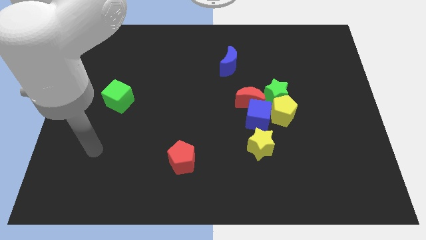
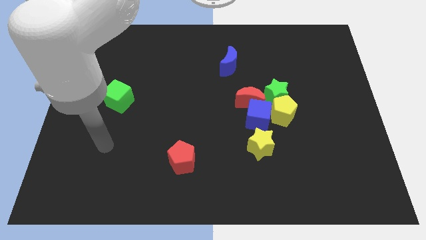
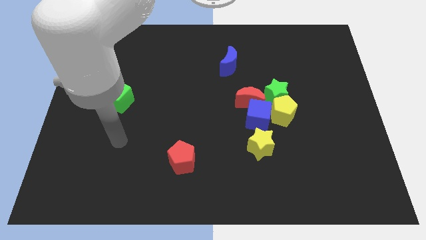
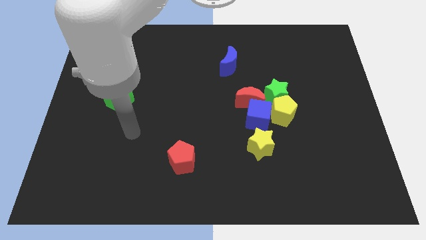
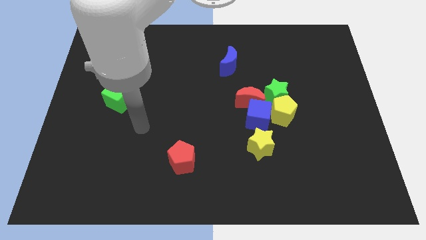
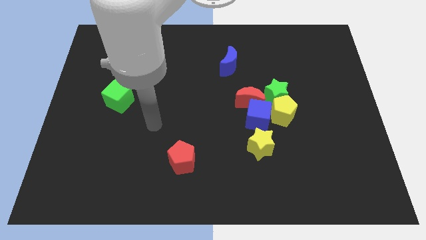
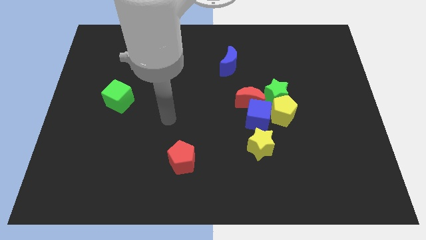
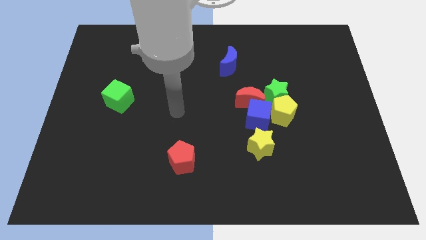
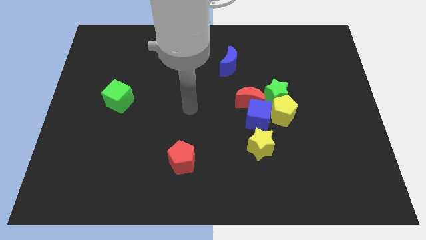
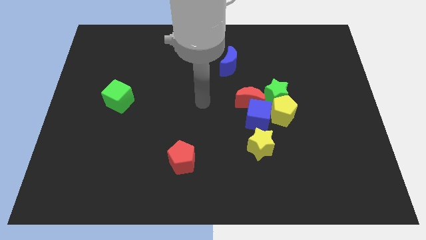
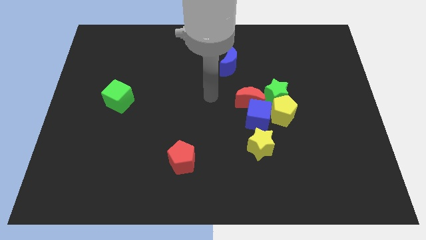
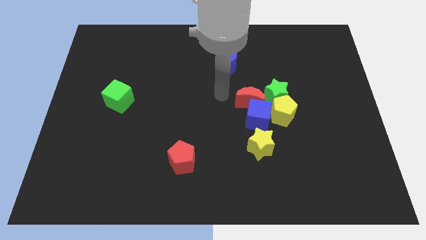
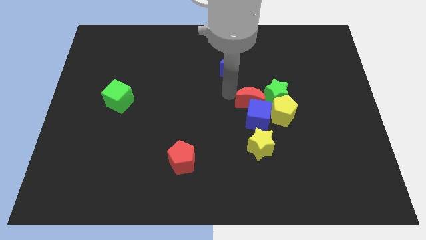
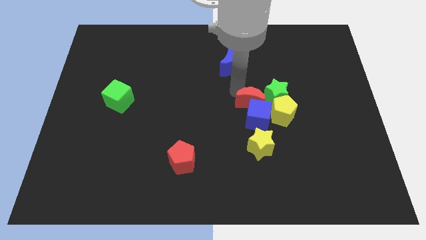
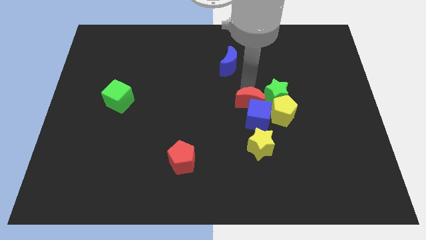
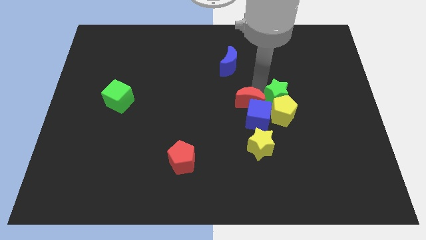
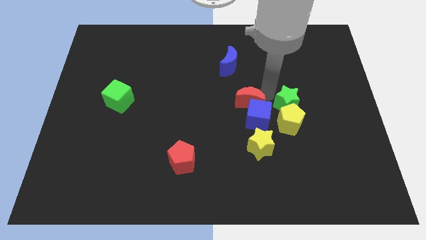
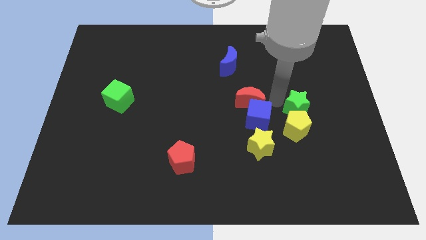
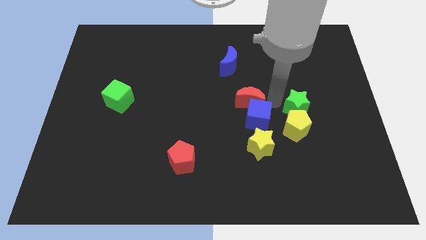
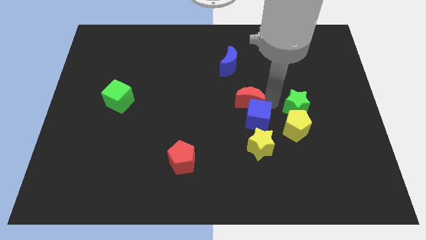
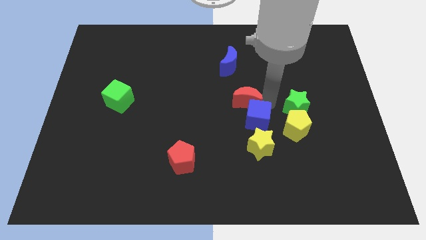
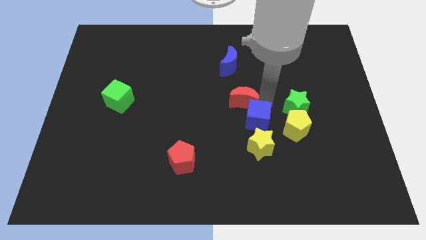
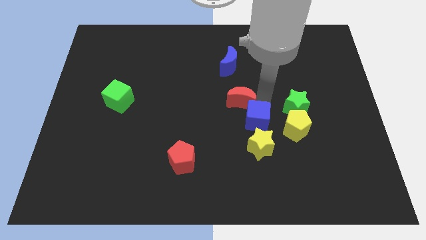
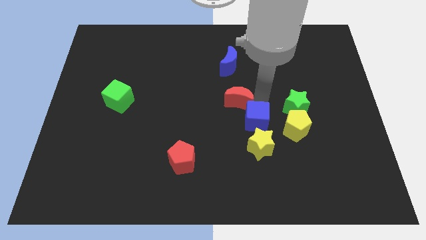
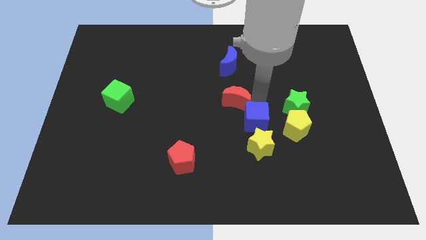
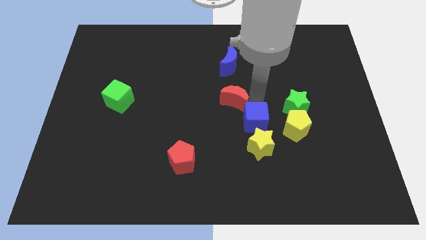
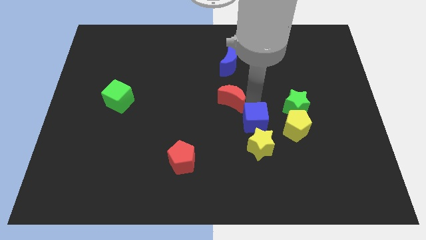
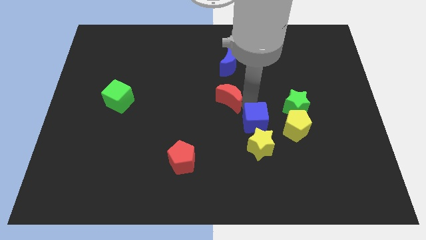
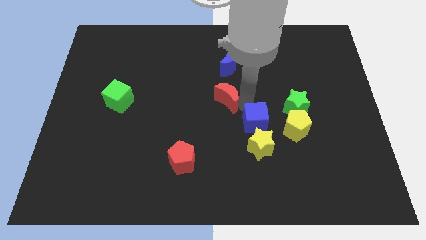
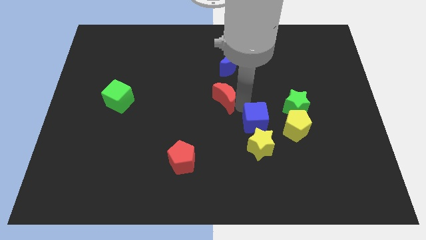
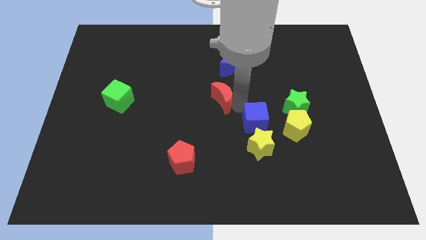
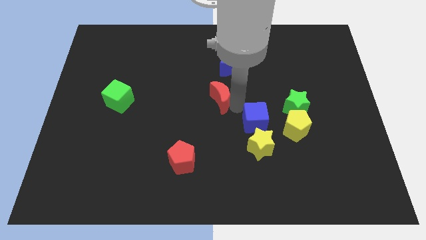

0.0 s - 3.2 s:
move the red moon a little bit left

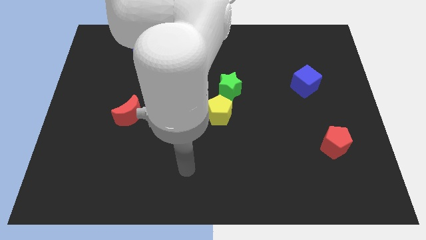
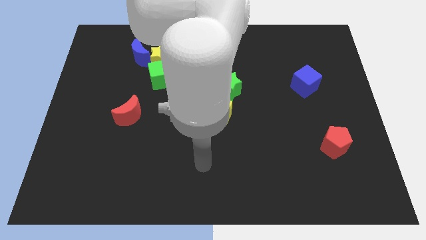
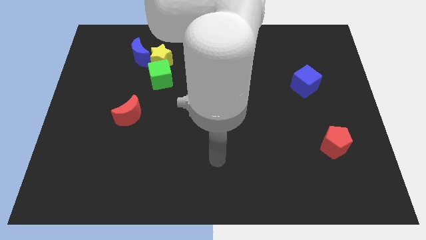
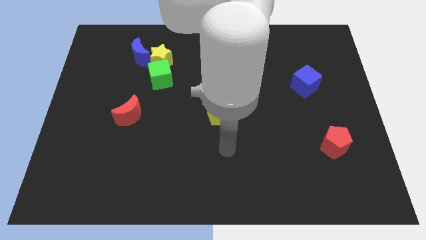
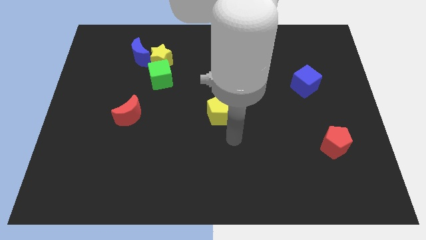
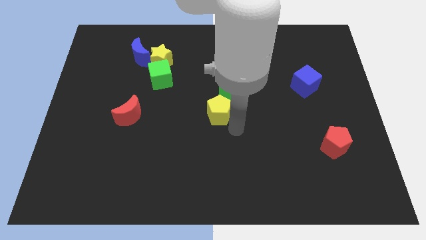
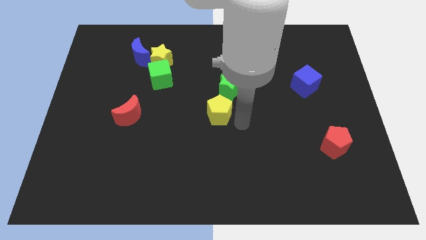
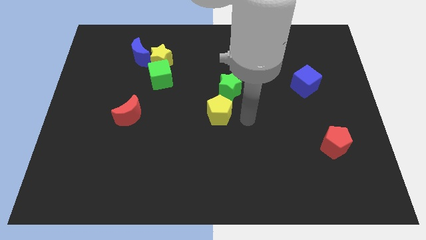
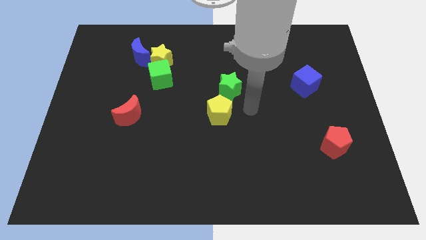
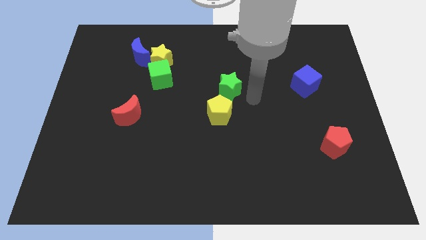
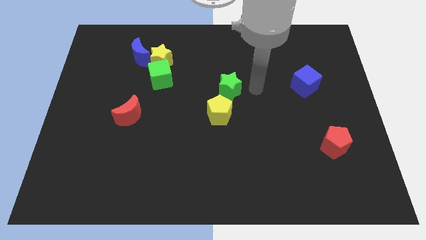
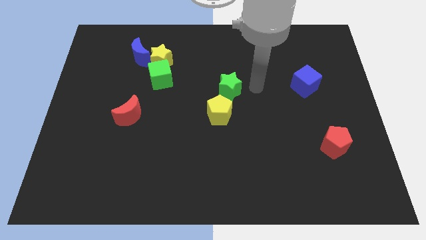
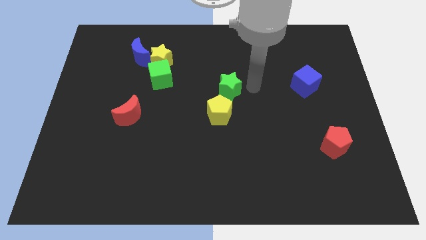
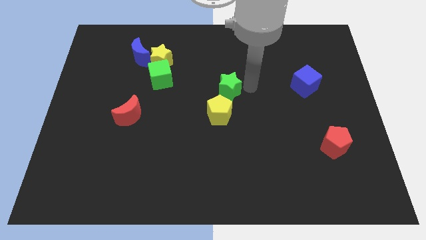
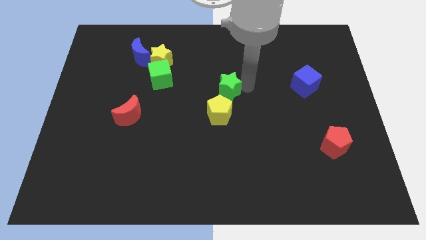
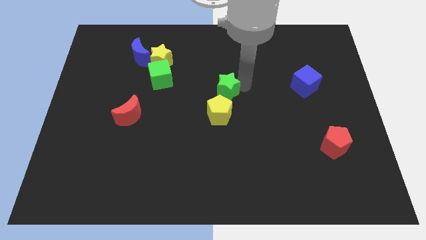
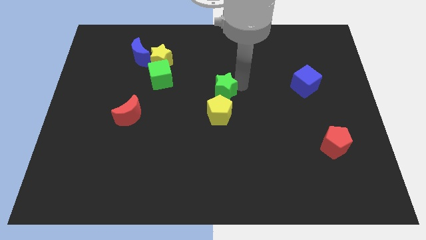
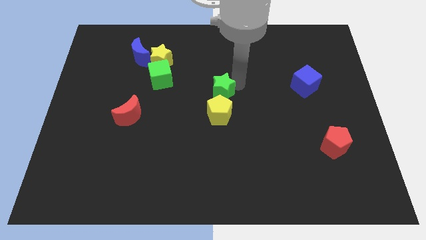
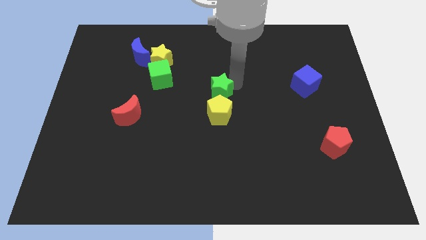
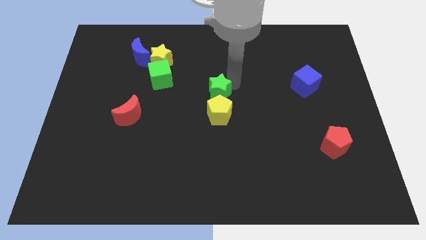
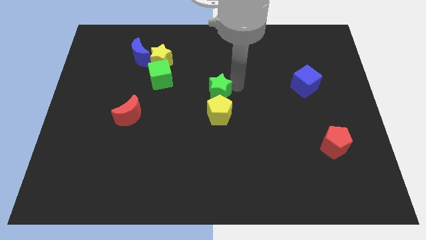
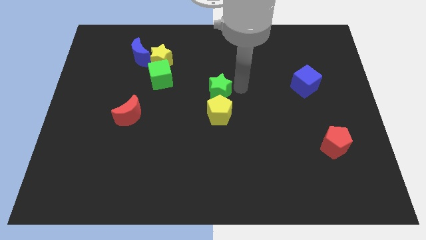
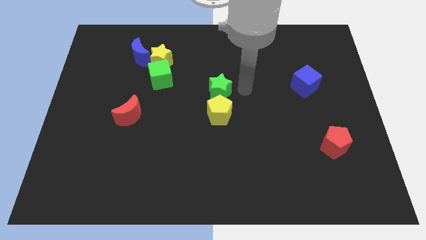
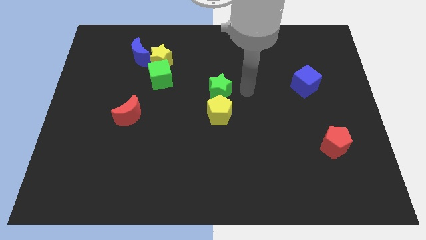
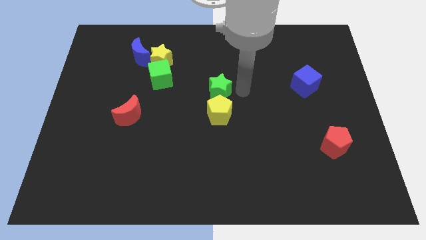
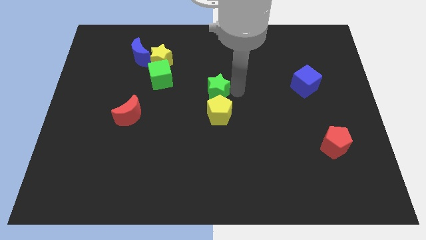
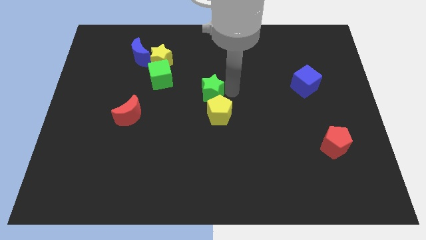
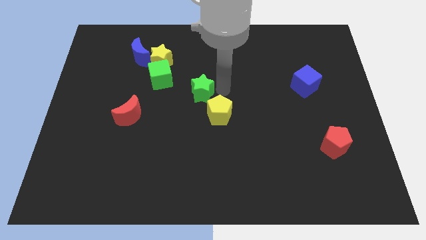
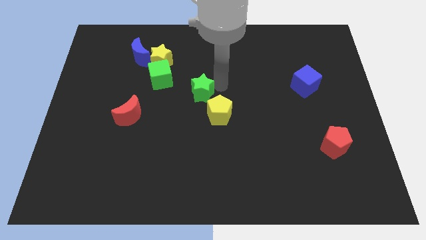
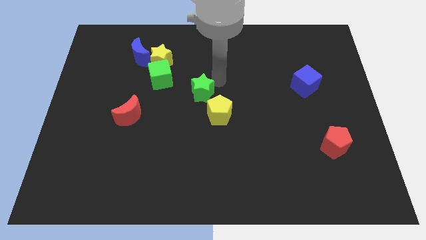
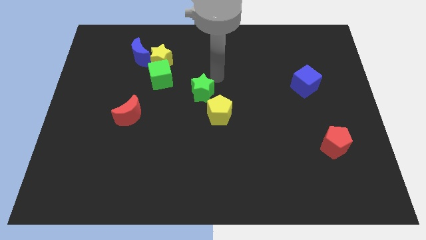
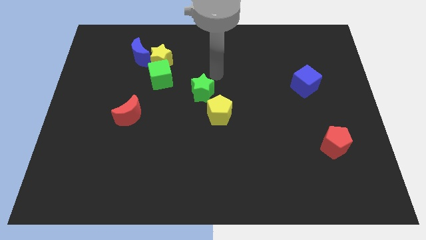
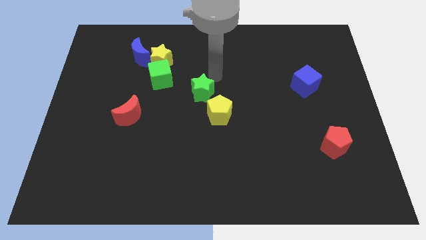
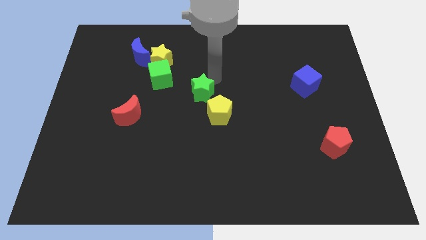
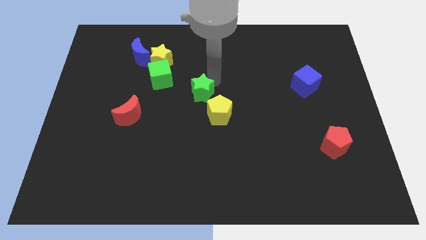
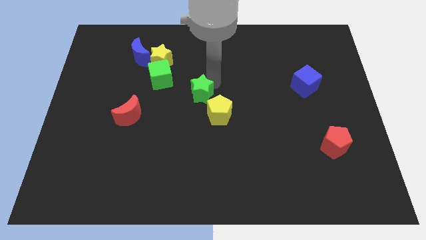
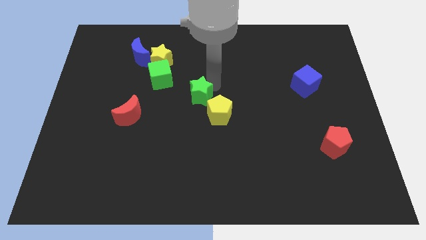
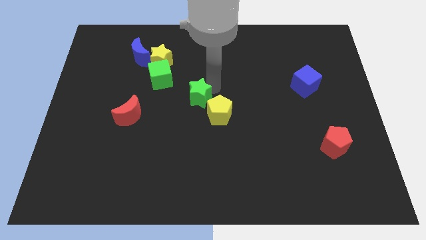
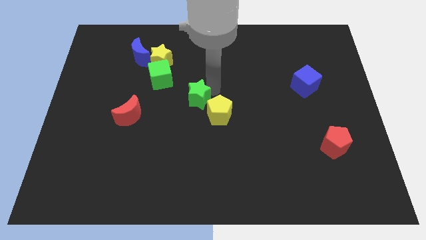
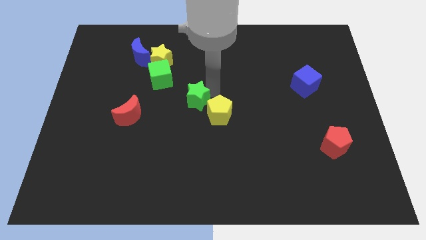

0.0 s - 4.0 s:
slide the green star slightly downwards and left diagonally

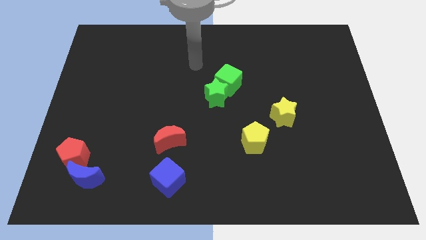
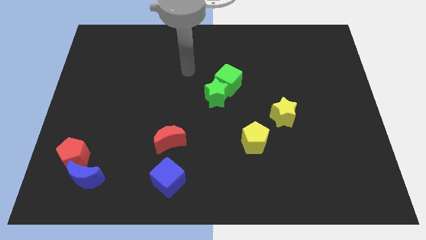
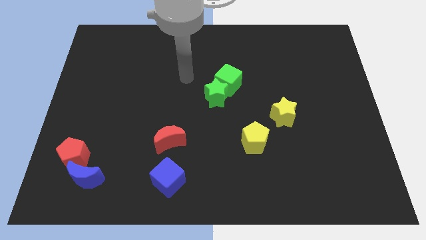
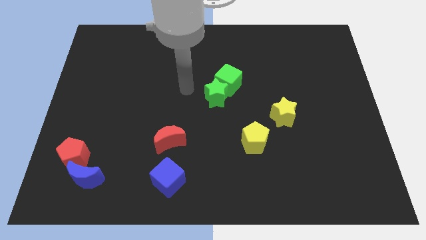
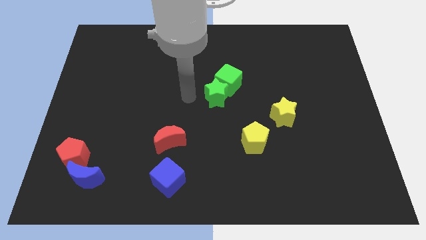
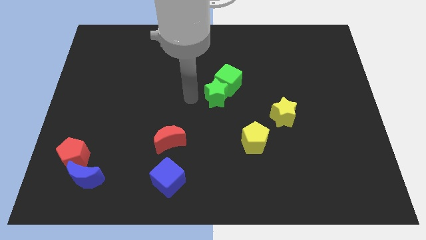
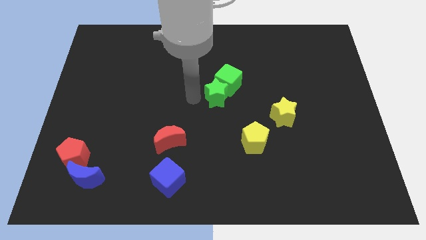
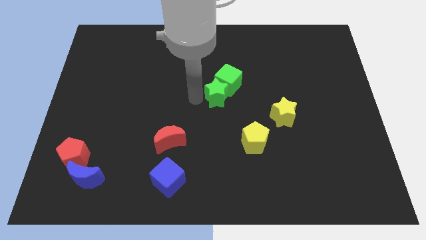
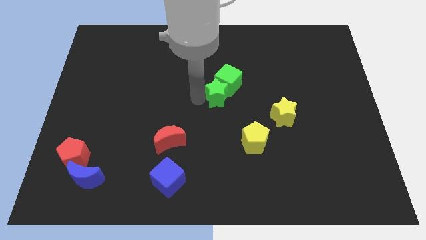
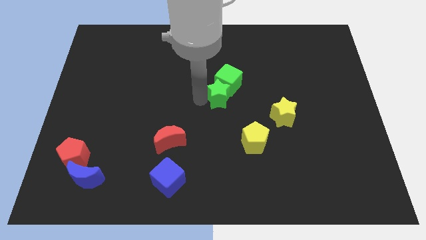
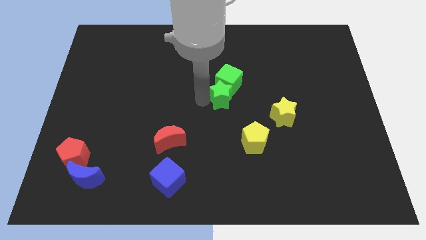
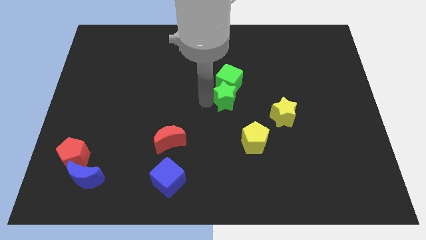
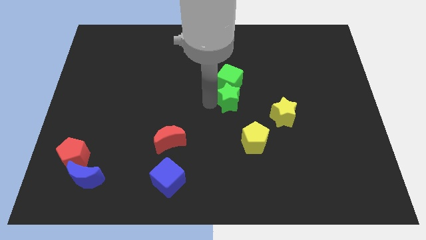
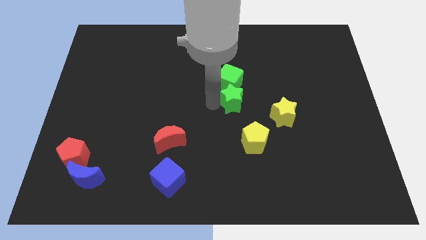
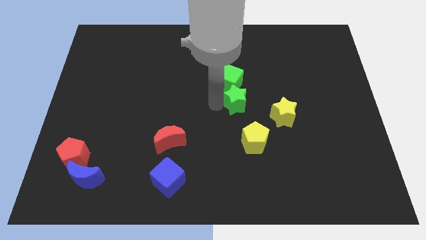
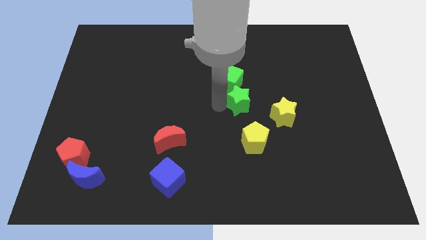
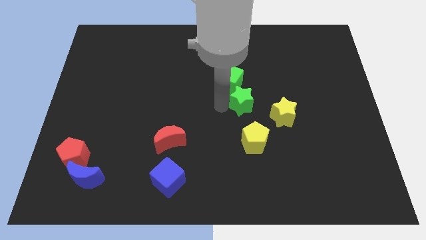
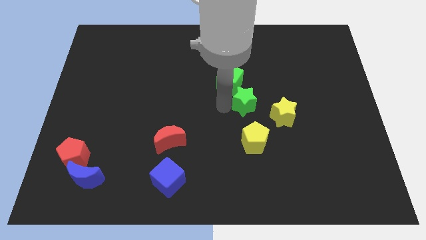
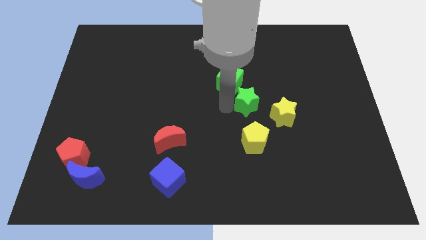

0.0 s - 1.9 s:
slightly slide the green star to the right
